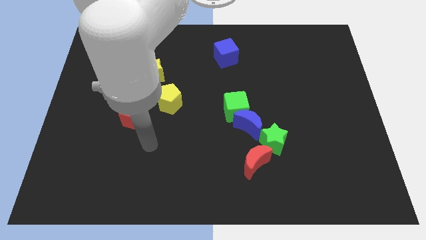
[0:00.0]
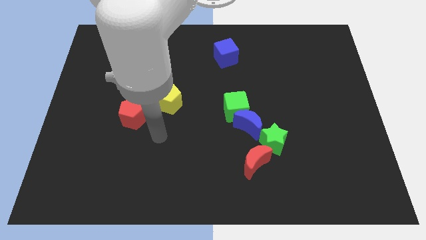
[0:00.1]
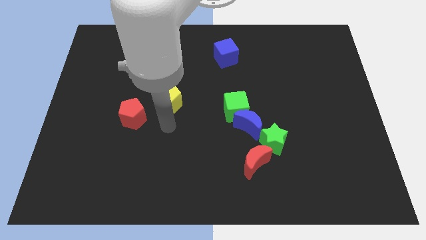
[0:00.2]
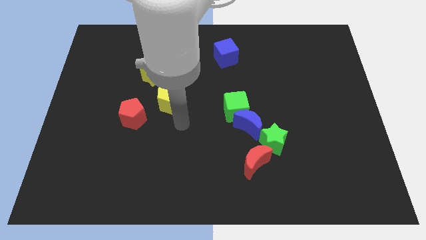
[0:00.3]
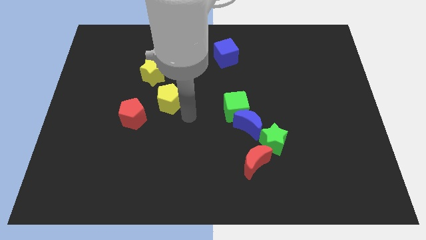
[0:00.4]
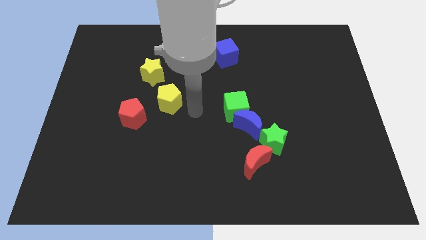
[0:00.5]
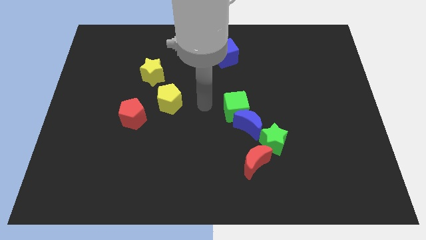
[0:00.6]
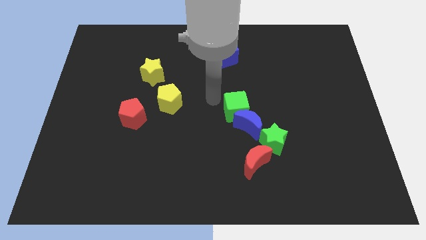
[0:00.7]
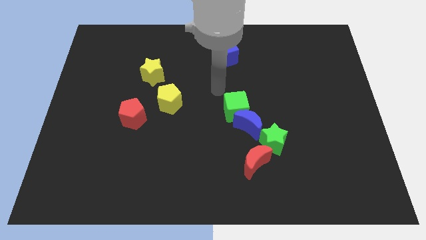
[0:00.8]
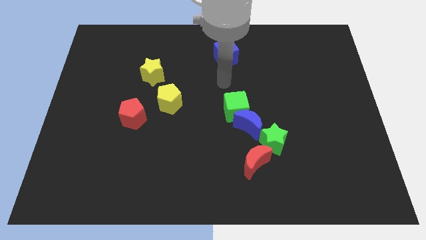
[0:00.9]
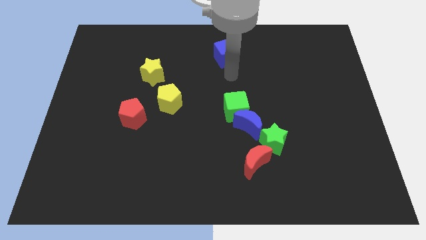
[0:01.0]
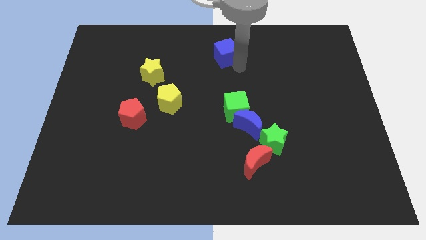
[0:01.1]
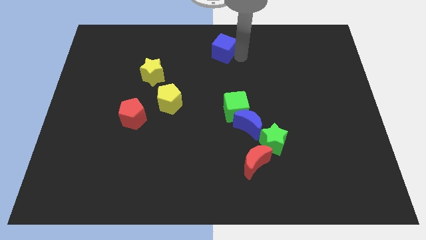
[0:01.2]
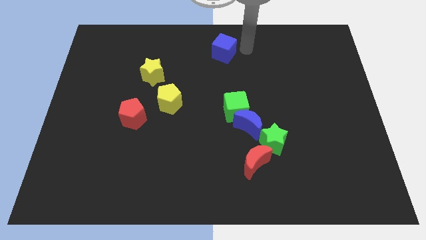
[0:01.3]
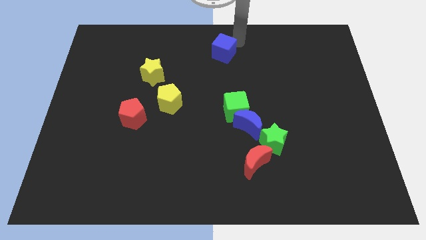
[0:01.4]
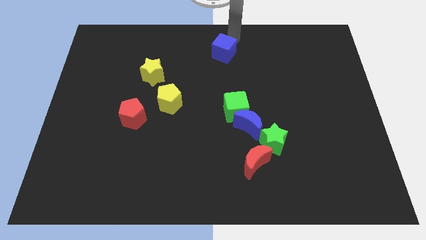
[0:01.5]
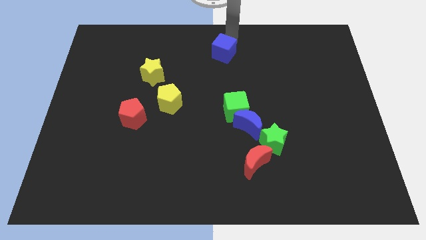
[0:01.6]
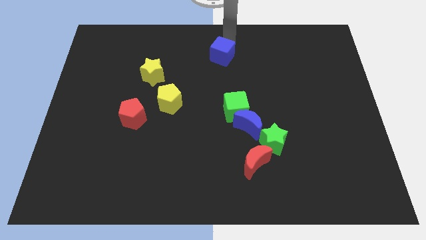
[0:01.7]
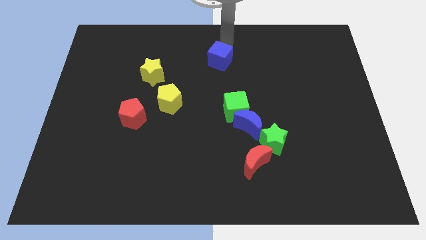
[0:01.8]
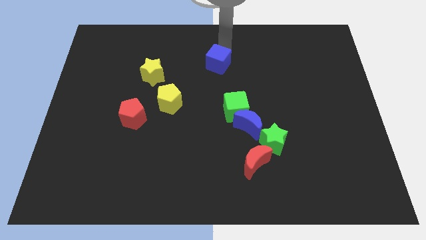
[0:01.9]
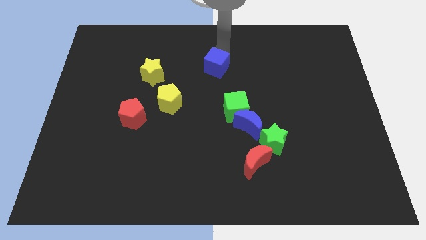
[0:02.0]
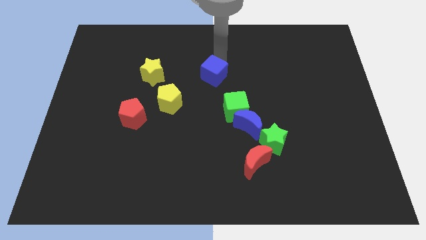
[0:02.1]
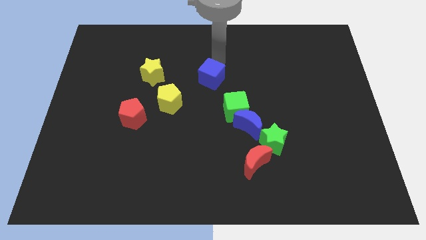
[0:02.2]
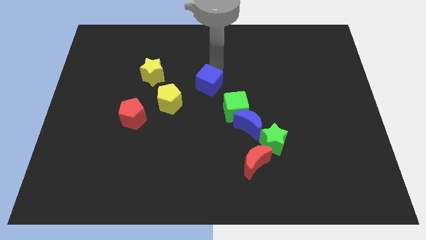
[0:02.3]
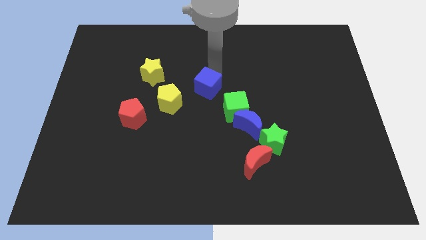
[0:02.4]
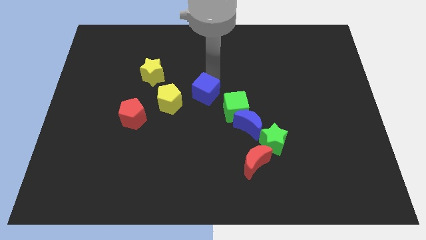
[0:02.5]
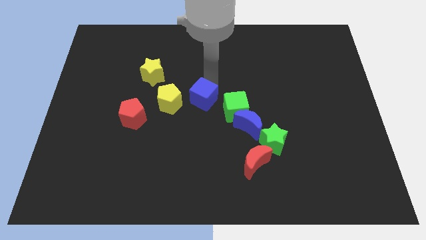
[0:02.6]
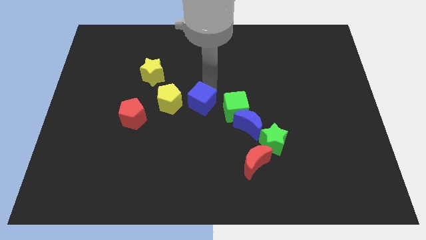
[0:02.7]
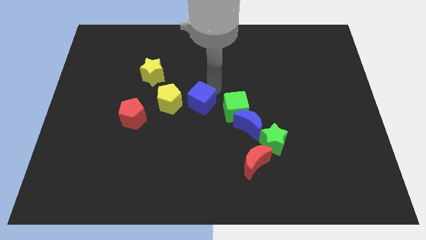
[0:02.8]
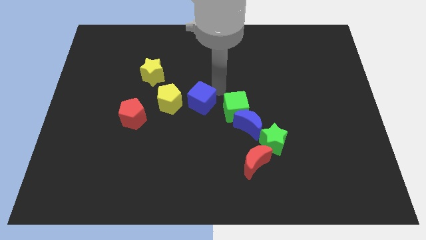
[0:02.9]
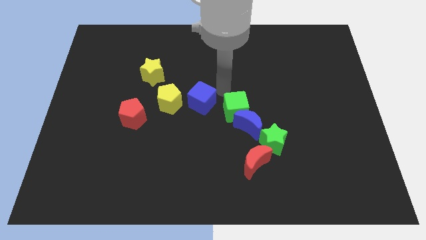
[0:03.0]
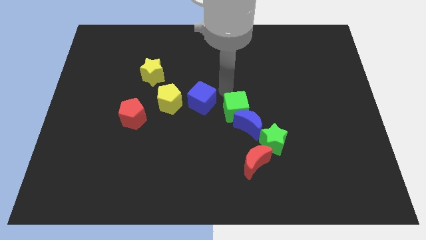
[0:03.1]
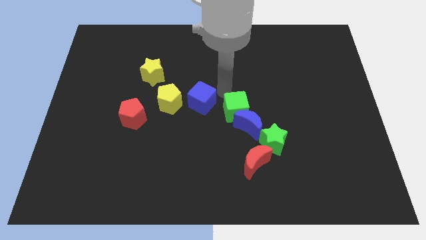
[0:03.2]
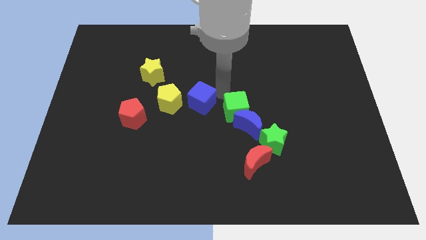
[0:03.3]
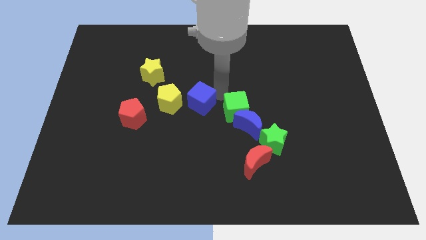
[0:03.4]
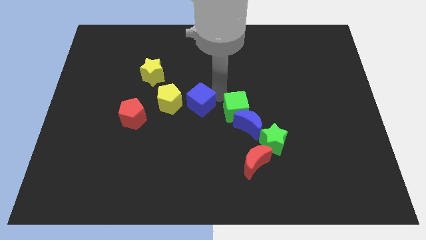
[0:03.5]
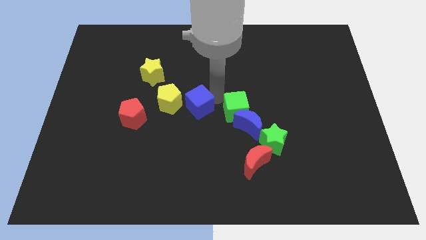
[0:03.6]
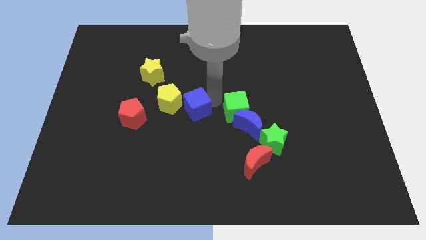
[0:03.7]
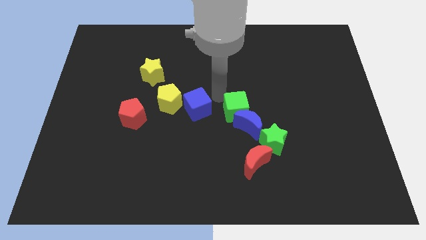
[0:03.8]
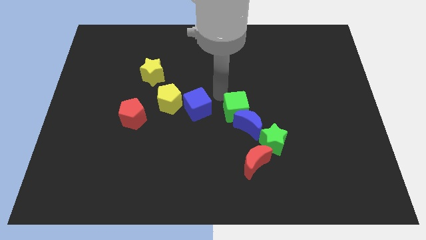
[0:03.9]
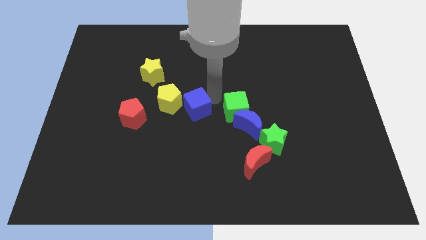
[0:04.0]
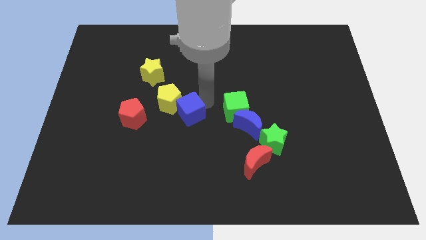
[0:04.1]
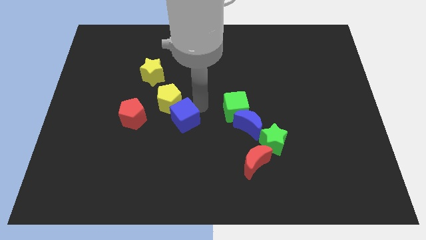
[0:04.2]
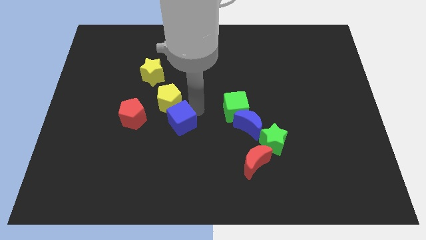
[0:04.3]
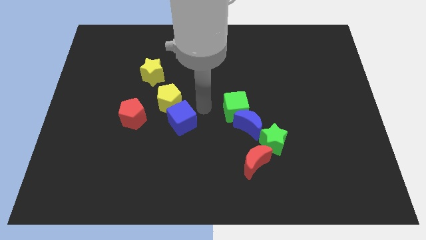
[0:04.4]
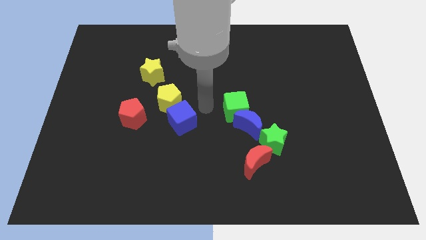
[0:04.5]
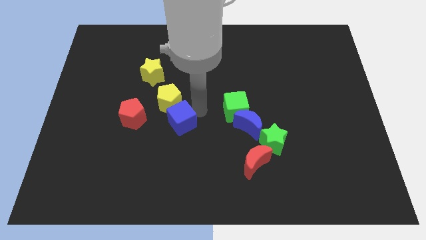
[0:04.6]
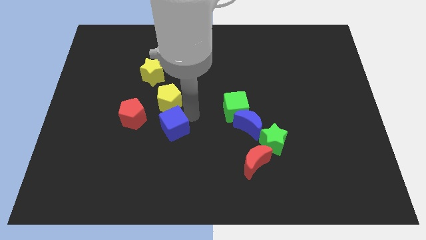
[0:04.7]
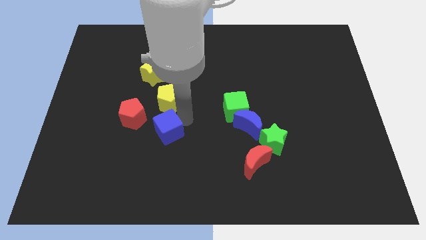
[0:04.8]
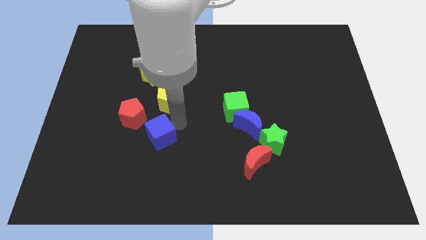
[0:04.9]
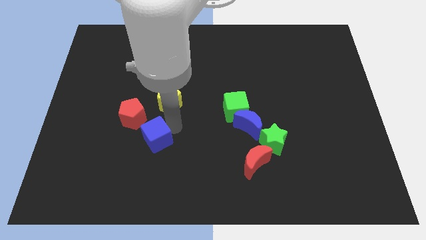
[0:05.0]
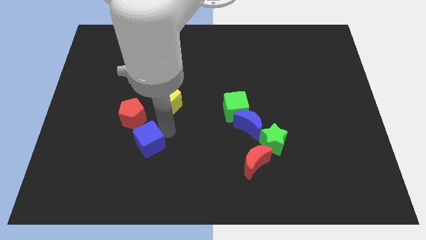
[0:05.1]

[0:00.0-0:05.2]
slide the blue cube below the red pentagon

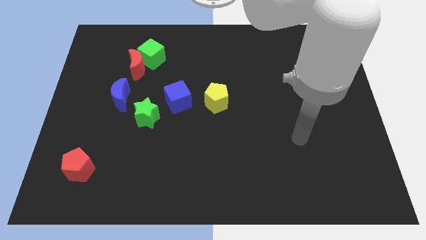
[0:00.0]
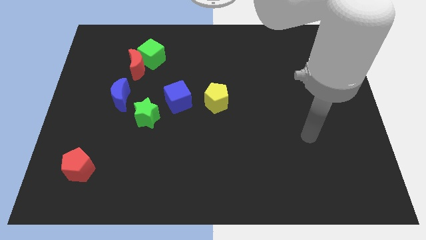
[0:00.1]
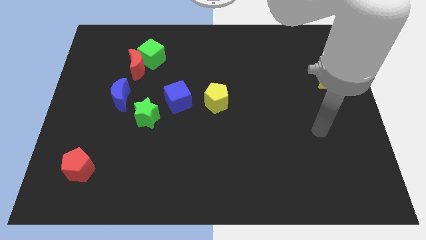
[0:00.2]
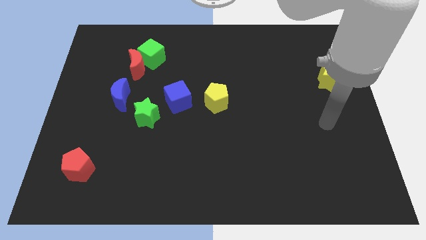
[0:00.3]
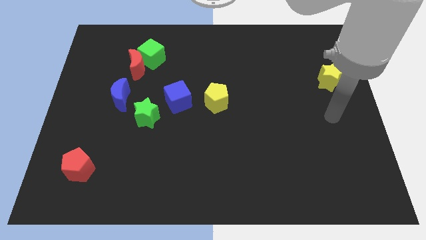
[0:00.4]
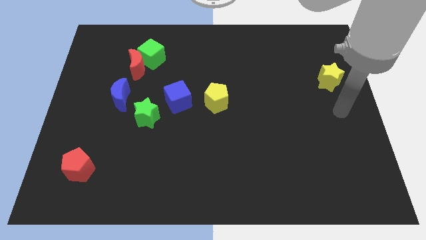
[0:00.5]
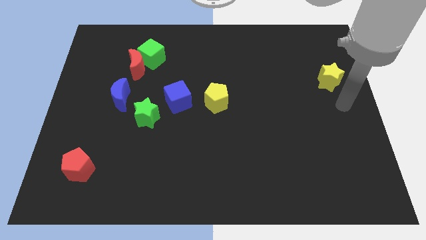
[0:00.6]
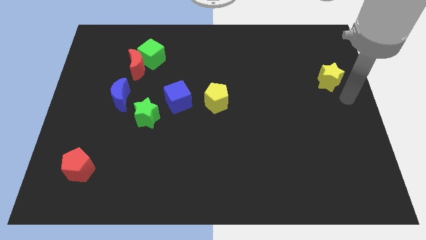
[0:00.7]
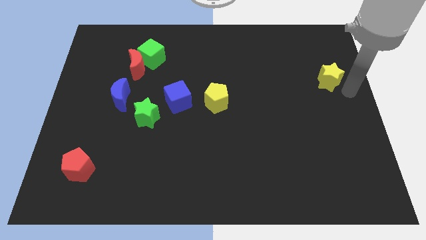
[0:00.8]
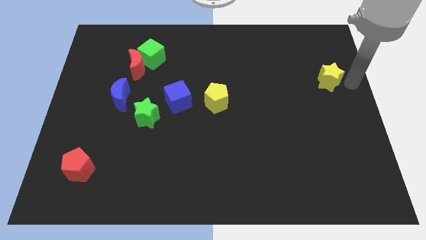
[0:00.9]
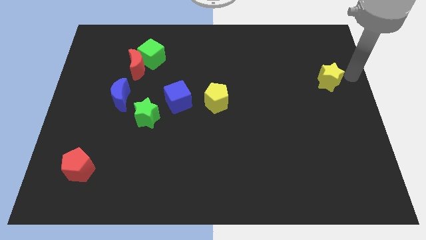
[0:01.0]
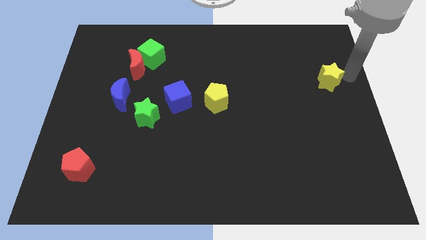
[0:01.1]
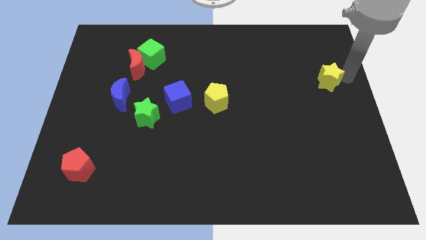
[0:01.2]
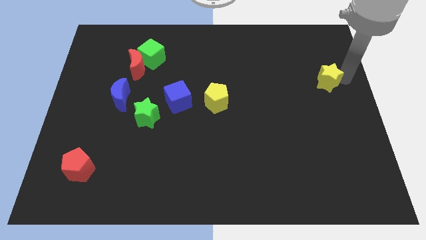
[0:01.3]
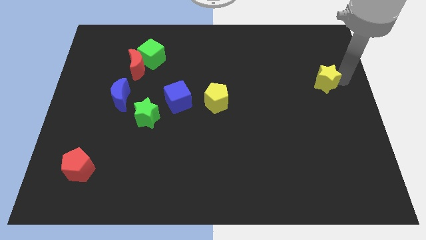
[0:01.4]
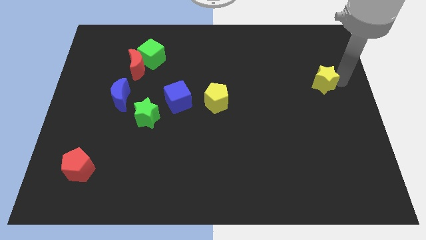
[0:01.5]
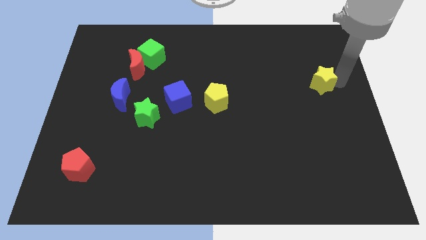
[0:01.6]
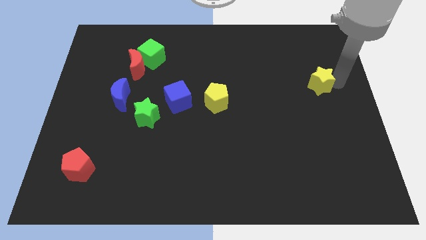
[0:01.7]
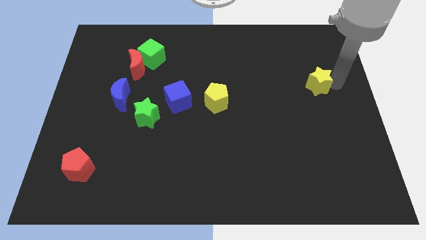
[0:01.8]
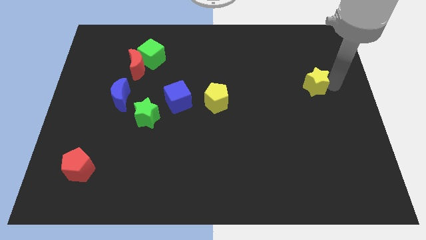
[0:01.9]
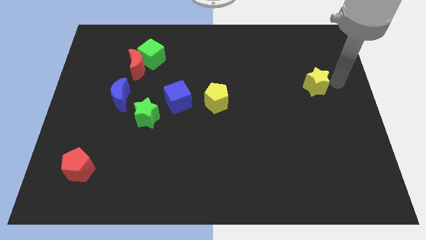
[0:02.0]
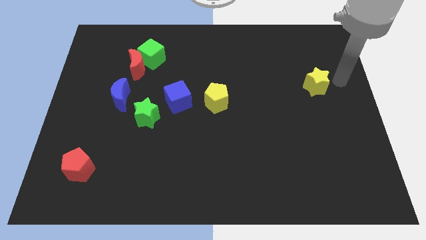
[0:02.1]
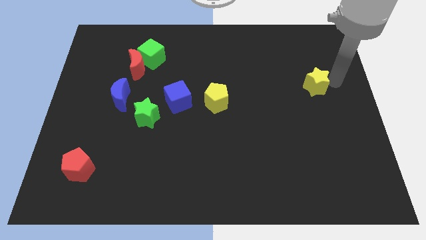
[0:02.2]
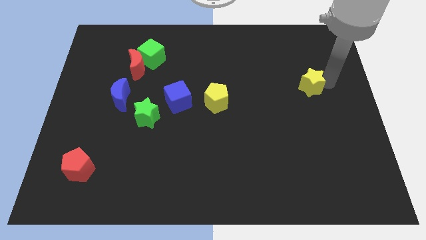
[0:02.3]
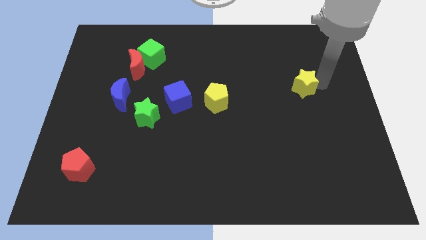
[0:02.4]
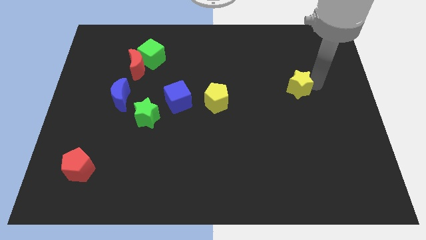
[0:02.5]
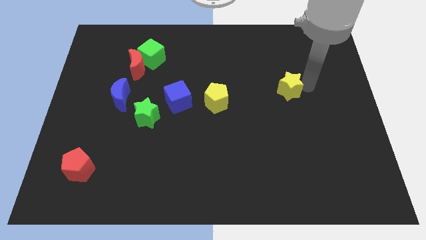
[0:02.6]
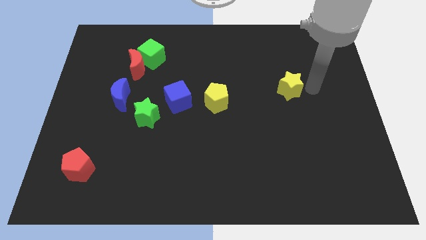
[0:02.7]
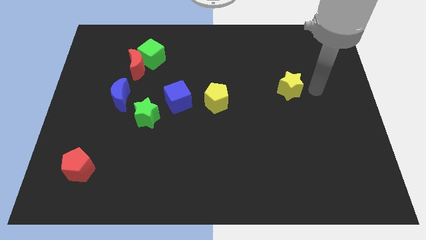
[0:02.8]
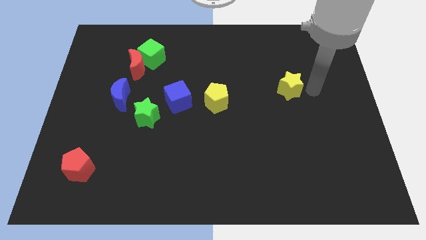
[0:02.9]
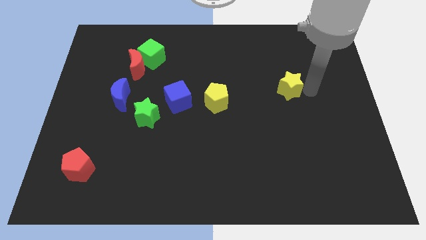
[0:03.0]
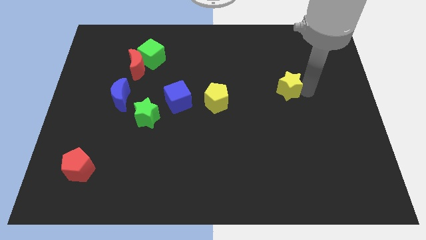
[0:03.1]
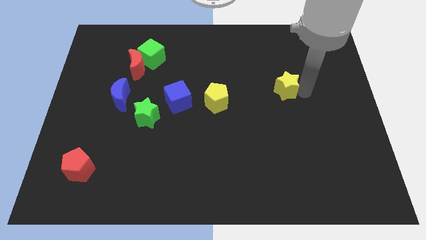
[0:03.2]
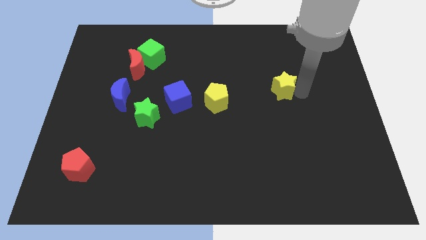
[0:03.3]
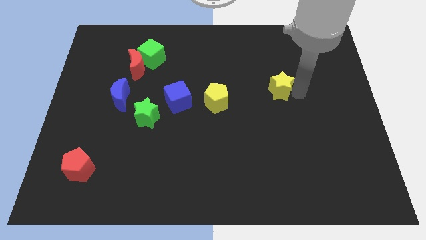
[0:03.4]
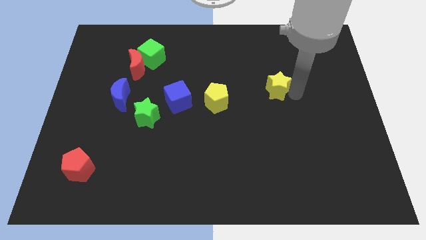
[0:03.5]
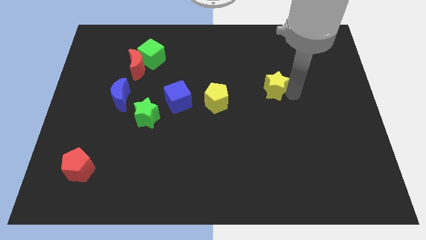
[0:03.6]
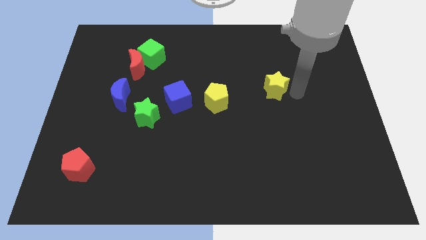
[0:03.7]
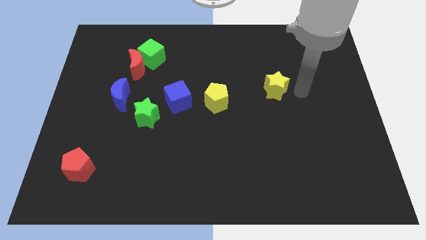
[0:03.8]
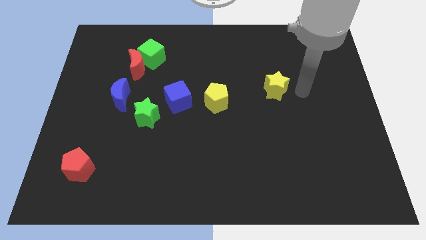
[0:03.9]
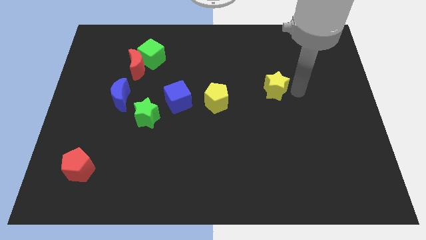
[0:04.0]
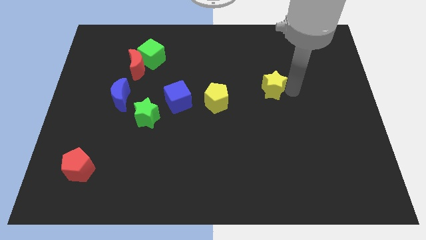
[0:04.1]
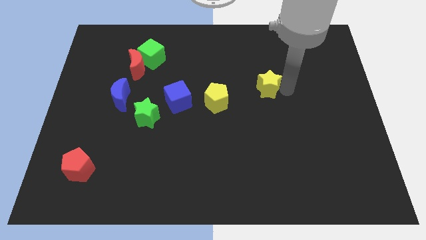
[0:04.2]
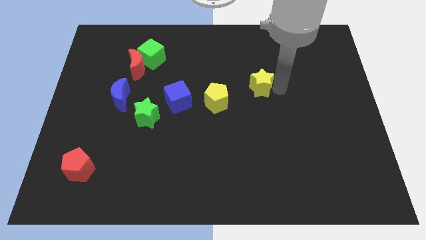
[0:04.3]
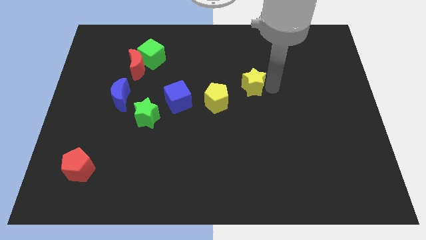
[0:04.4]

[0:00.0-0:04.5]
slide the yellow star diagonally up and to the right of the yellow pentagon
